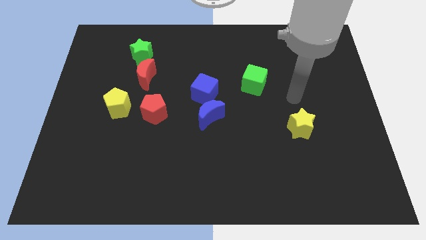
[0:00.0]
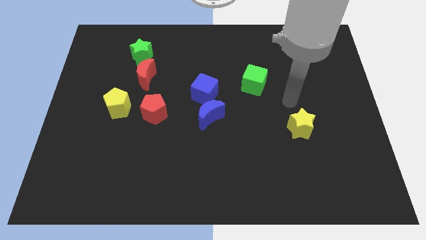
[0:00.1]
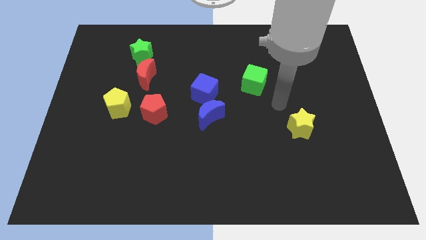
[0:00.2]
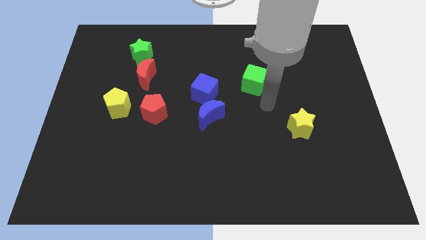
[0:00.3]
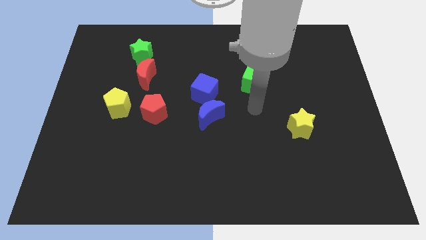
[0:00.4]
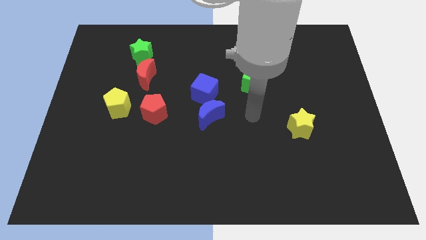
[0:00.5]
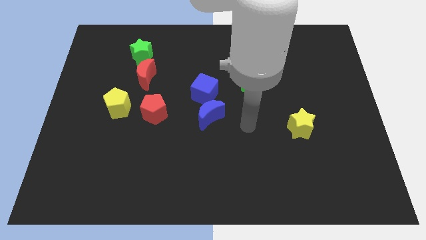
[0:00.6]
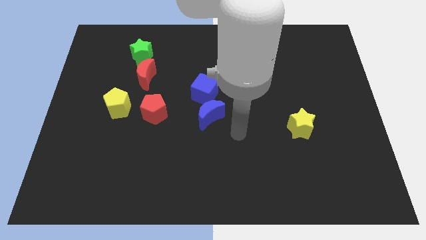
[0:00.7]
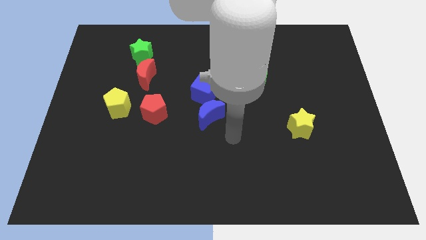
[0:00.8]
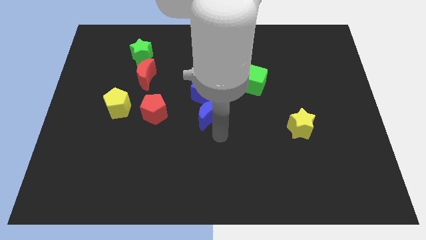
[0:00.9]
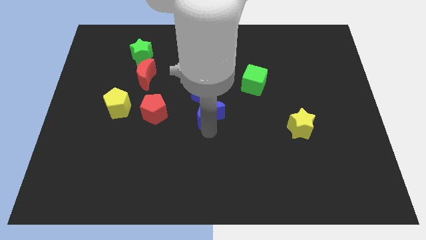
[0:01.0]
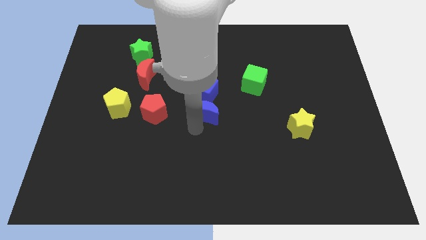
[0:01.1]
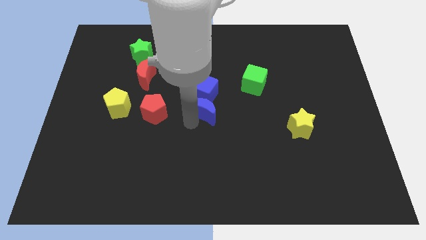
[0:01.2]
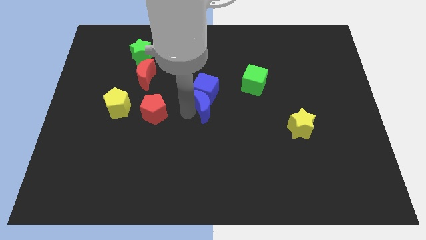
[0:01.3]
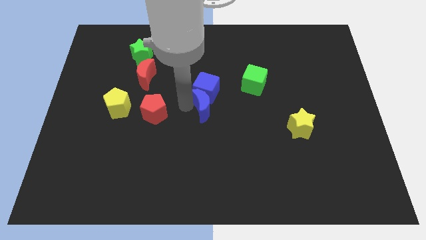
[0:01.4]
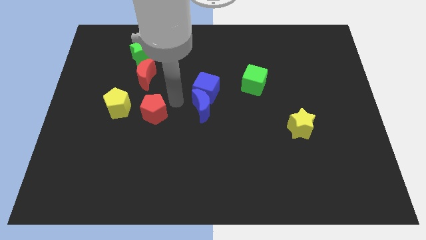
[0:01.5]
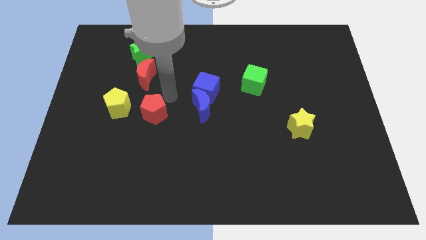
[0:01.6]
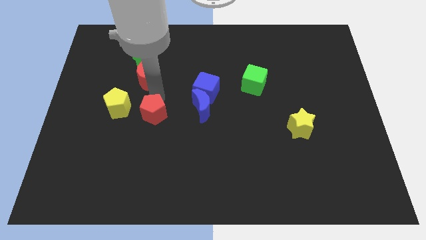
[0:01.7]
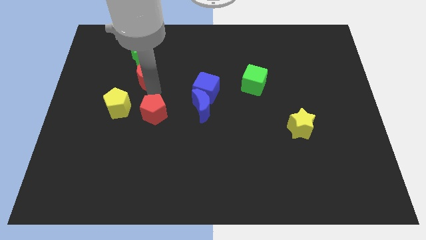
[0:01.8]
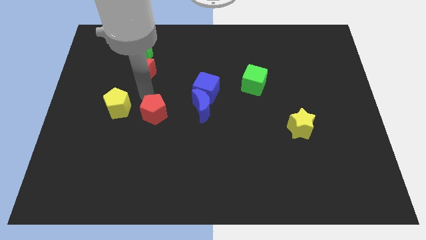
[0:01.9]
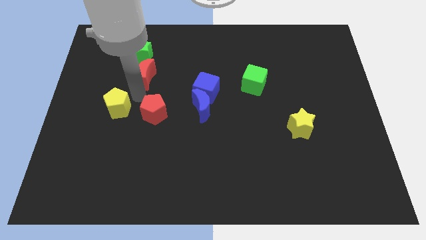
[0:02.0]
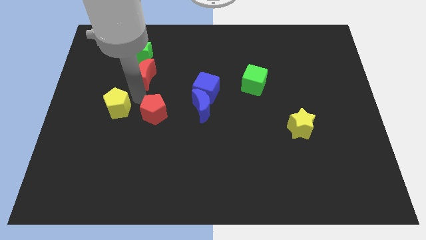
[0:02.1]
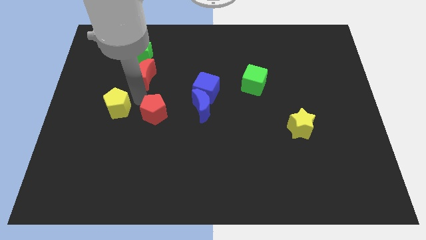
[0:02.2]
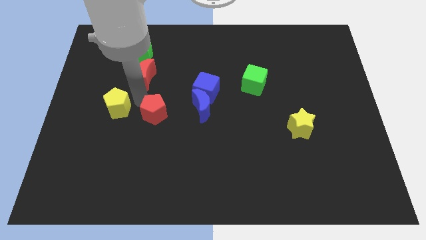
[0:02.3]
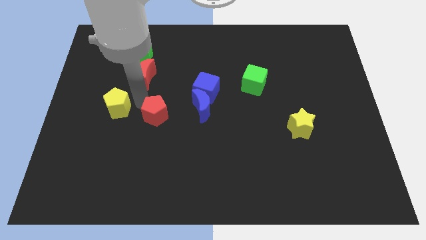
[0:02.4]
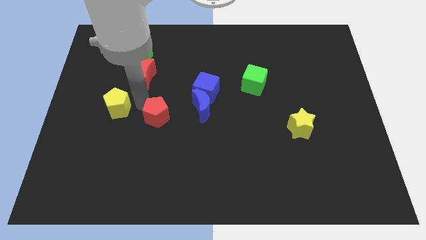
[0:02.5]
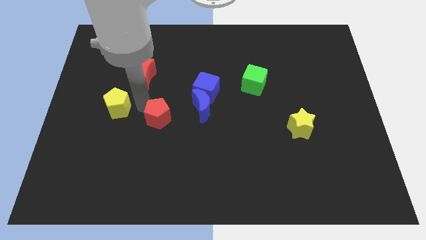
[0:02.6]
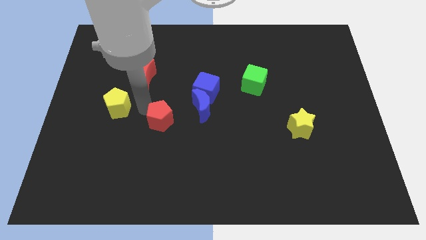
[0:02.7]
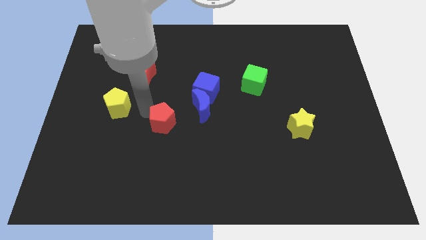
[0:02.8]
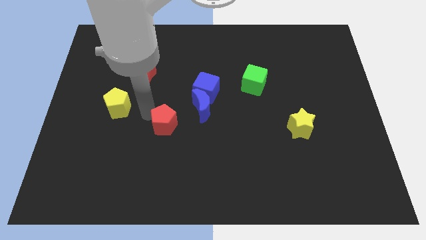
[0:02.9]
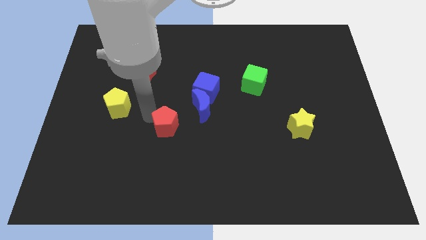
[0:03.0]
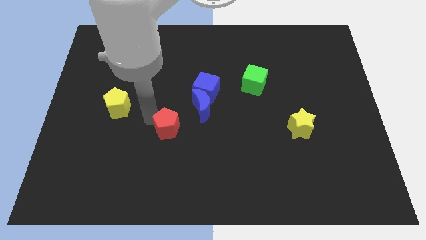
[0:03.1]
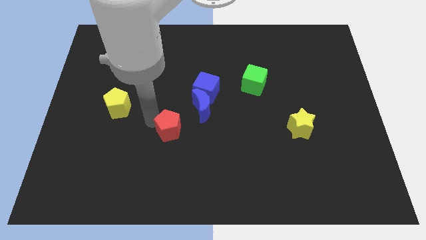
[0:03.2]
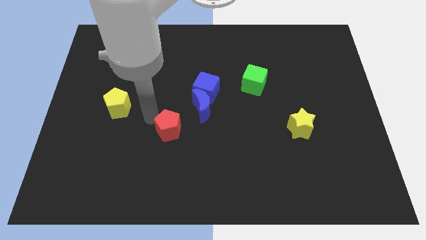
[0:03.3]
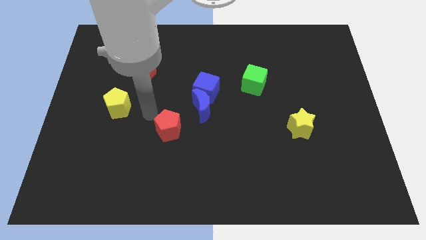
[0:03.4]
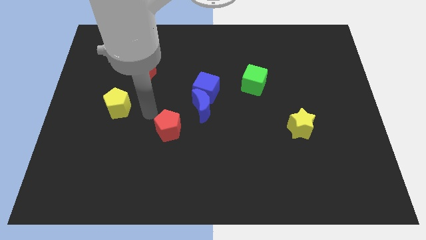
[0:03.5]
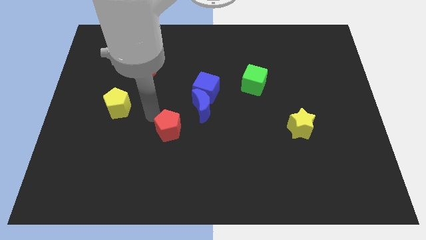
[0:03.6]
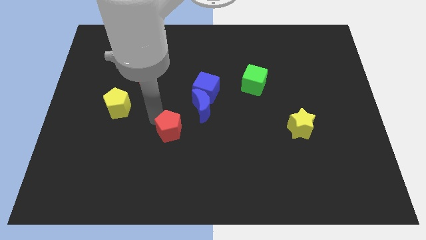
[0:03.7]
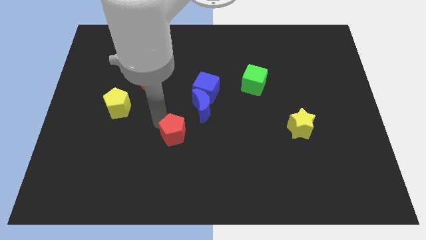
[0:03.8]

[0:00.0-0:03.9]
slide the red pentagon slightly down and then to the right

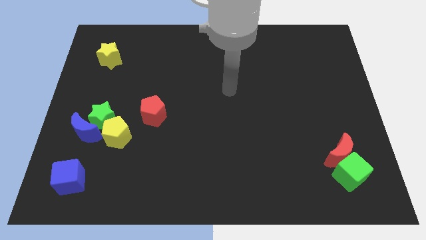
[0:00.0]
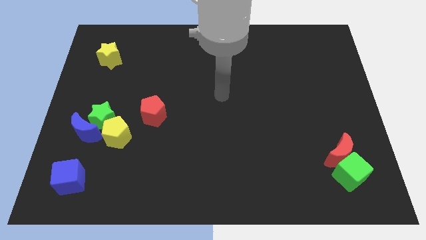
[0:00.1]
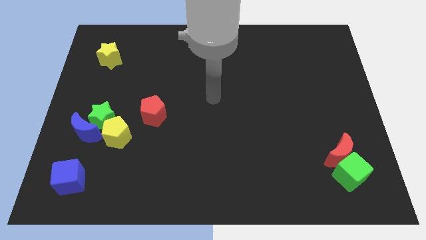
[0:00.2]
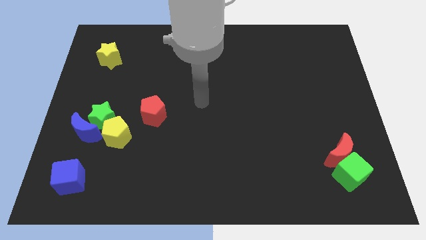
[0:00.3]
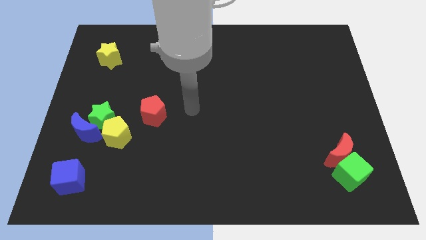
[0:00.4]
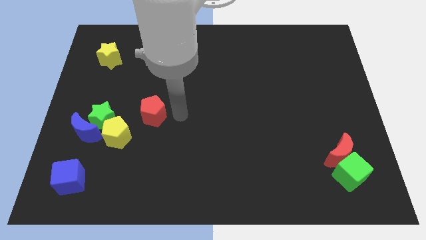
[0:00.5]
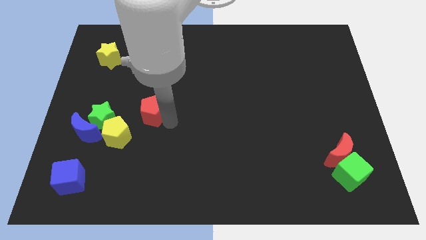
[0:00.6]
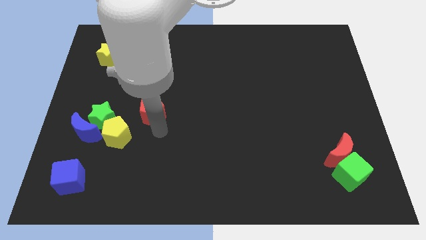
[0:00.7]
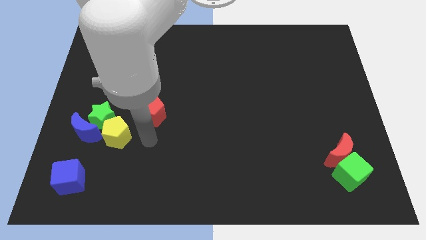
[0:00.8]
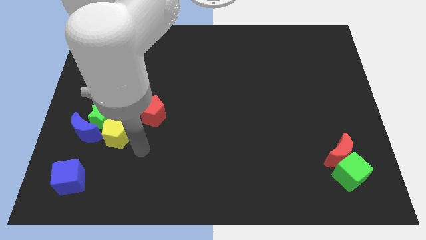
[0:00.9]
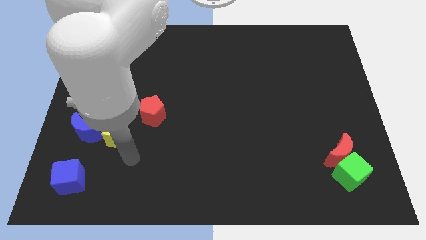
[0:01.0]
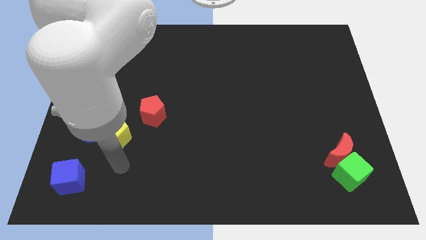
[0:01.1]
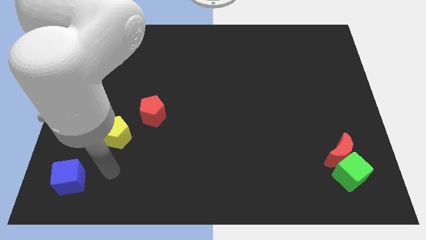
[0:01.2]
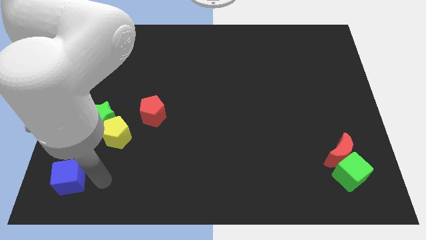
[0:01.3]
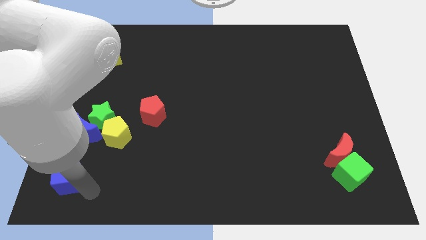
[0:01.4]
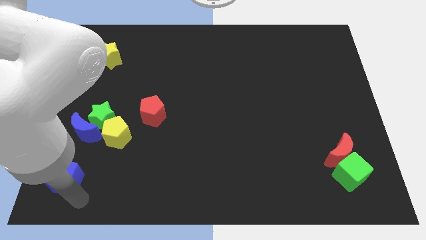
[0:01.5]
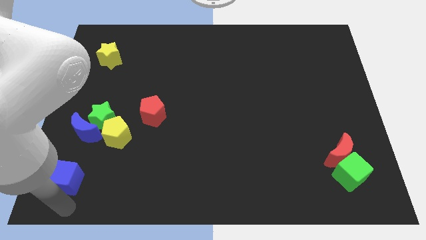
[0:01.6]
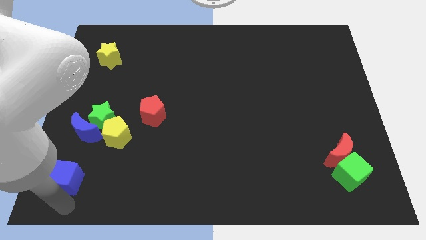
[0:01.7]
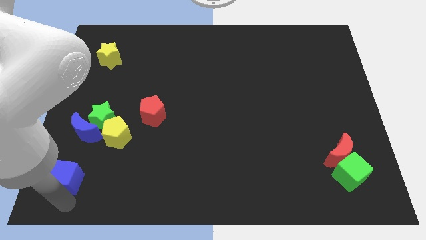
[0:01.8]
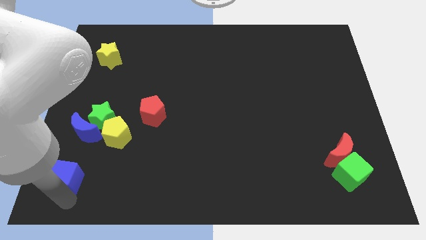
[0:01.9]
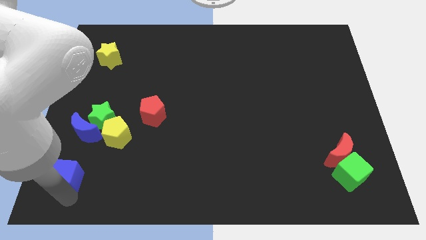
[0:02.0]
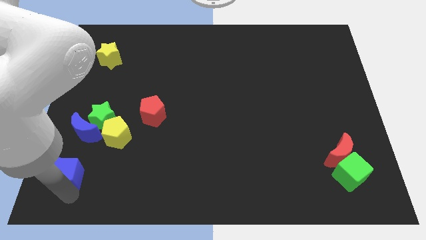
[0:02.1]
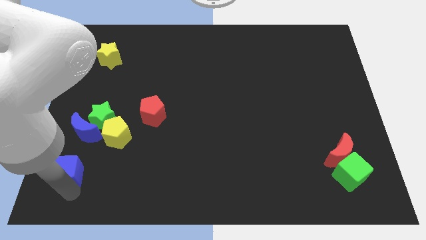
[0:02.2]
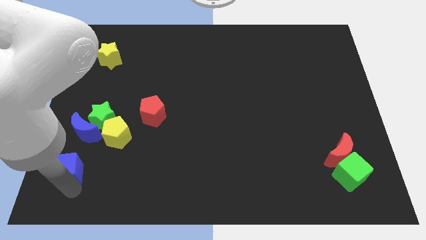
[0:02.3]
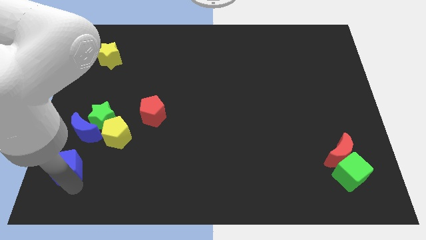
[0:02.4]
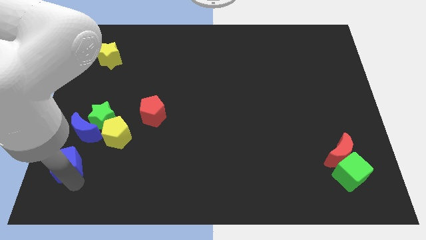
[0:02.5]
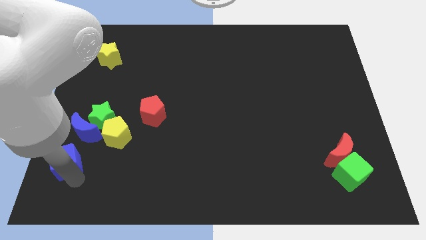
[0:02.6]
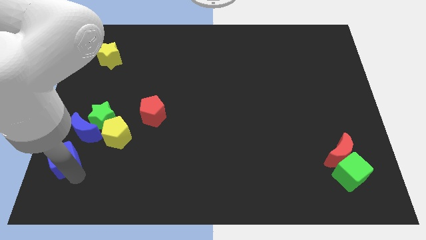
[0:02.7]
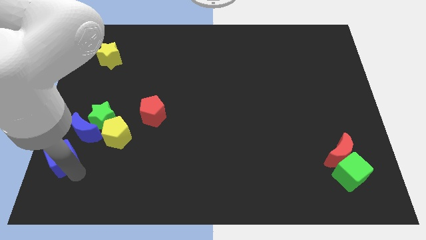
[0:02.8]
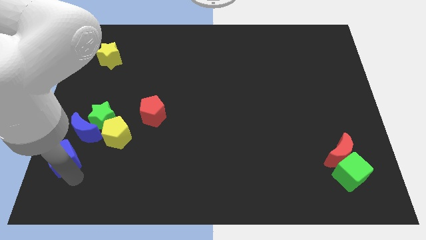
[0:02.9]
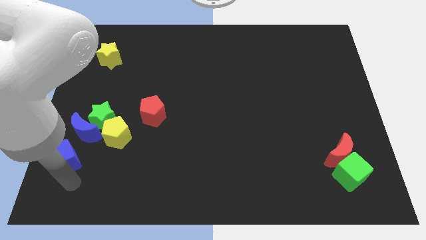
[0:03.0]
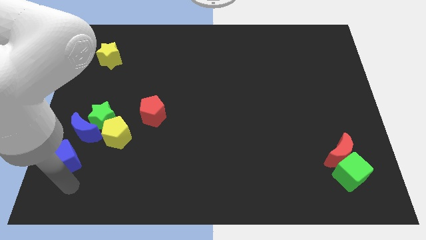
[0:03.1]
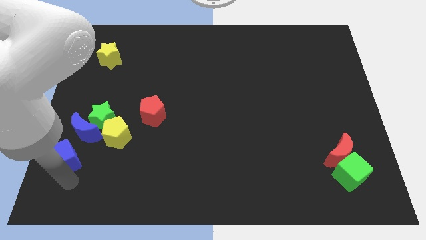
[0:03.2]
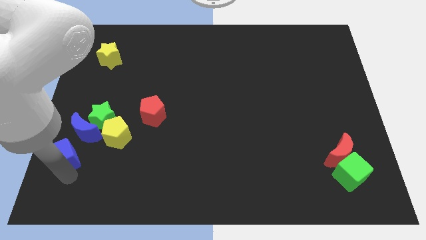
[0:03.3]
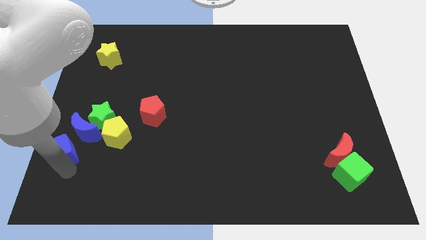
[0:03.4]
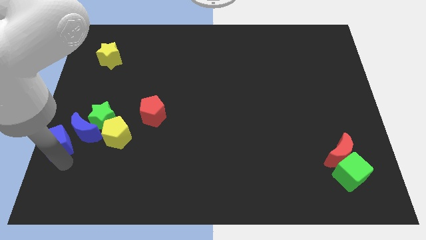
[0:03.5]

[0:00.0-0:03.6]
slightly push the blue cube upwards

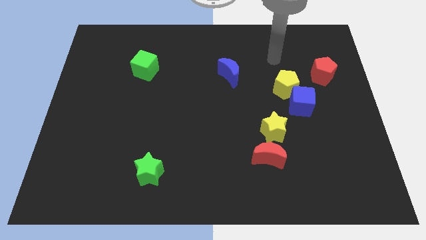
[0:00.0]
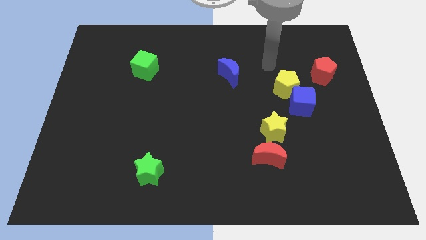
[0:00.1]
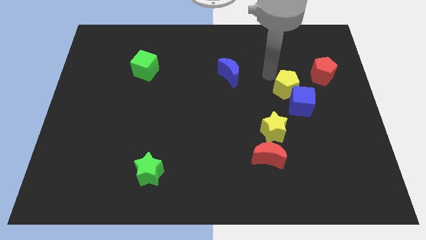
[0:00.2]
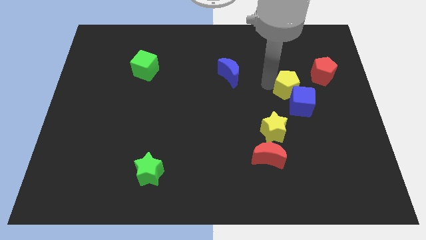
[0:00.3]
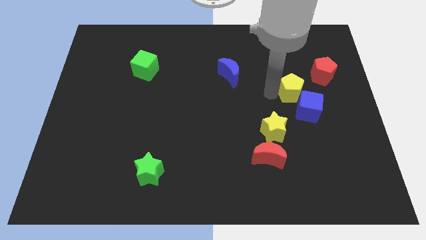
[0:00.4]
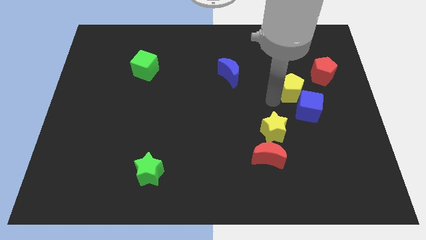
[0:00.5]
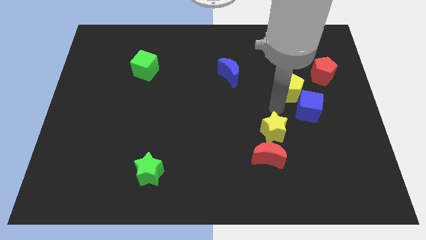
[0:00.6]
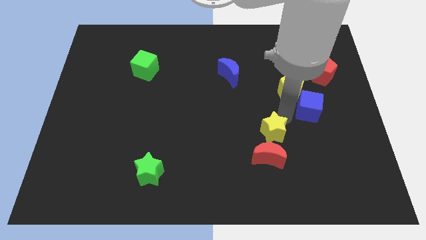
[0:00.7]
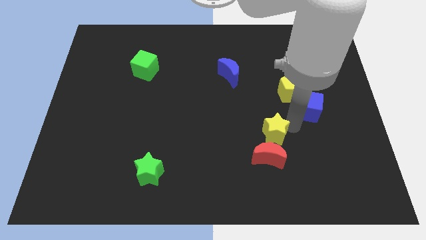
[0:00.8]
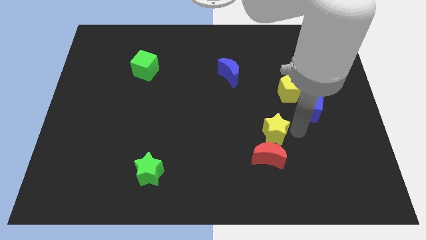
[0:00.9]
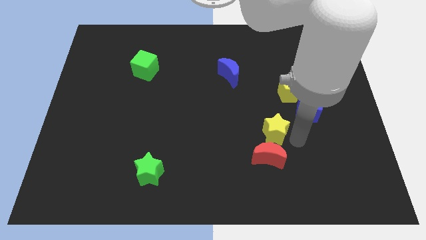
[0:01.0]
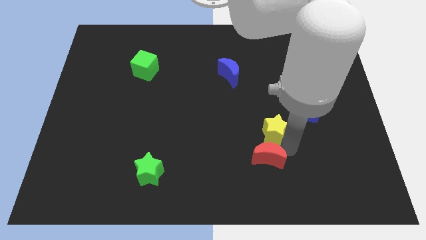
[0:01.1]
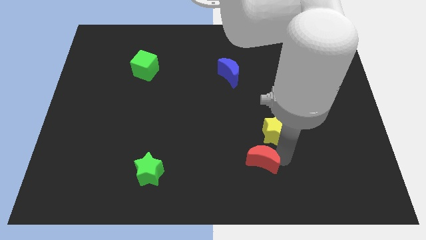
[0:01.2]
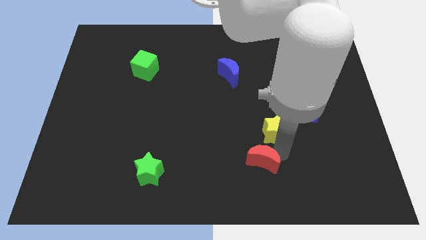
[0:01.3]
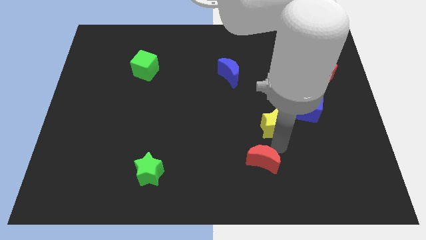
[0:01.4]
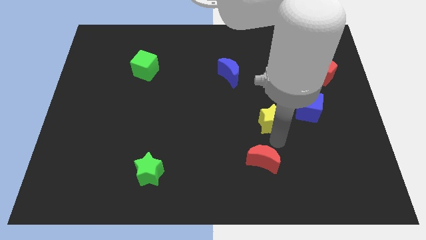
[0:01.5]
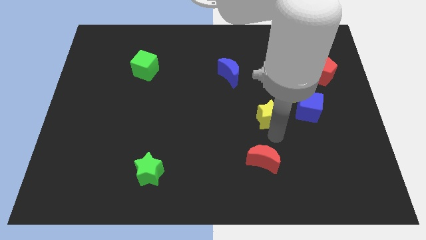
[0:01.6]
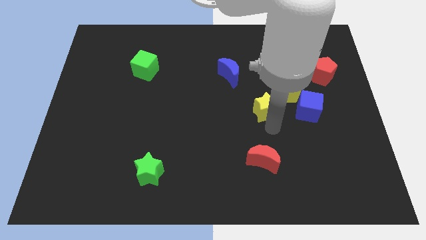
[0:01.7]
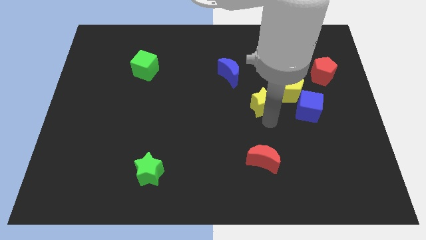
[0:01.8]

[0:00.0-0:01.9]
slightly slide the yellow star up
